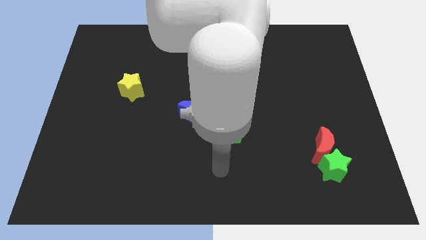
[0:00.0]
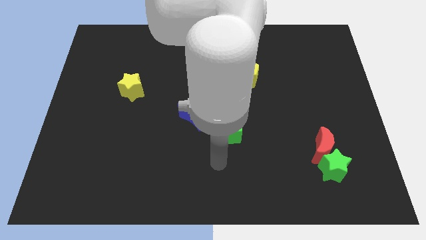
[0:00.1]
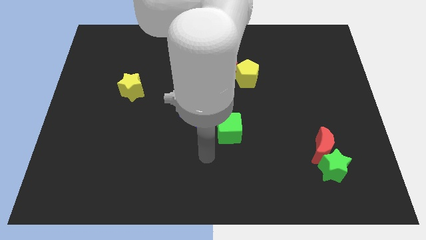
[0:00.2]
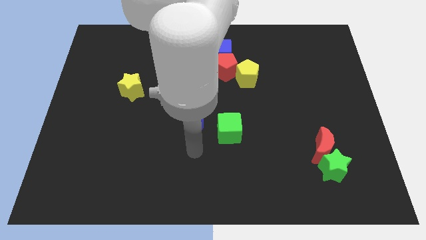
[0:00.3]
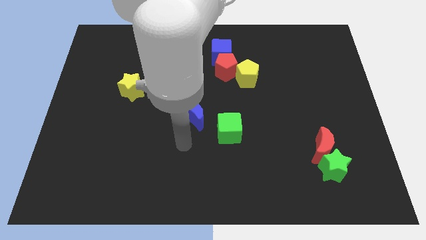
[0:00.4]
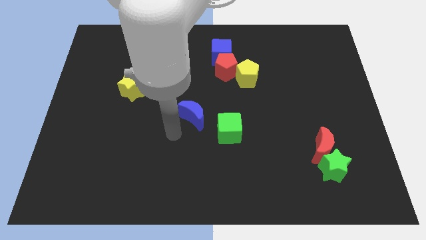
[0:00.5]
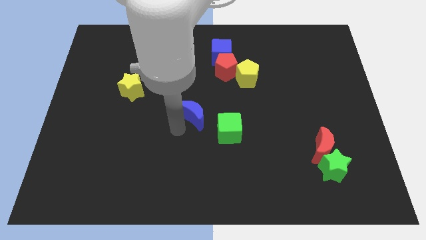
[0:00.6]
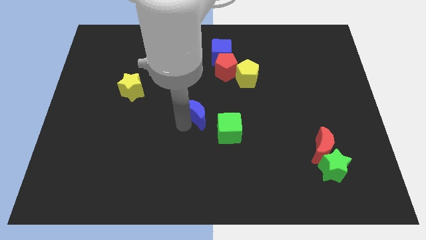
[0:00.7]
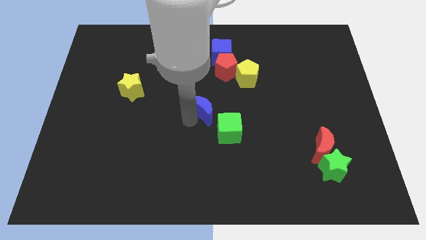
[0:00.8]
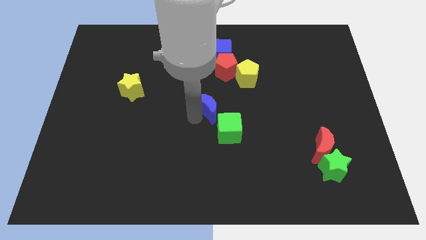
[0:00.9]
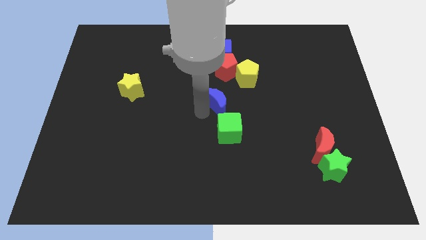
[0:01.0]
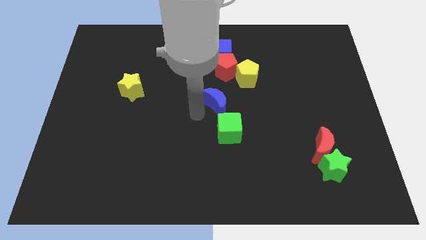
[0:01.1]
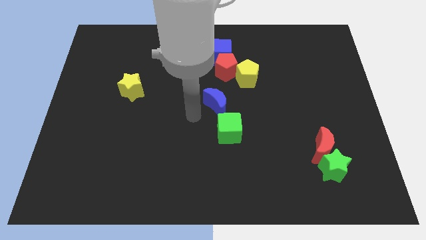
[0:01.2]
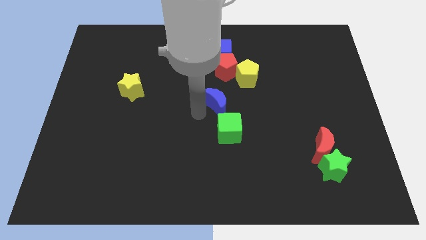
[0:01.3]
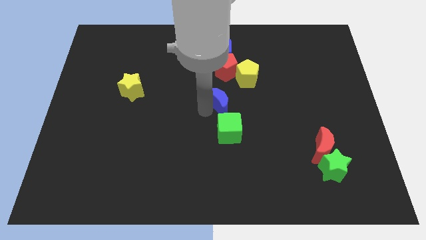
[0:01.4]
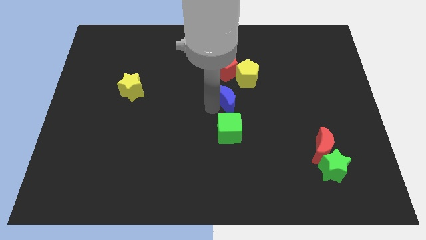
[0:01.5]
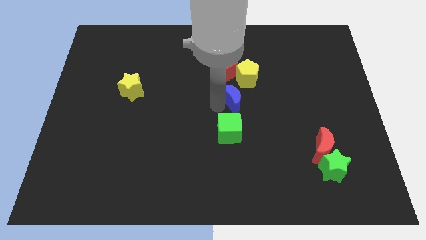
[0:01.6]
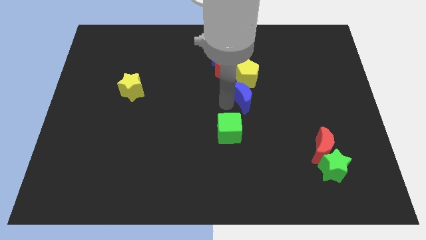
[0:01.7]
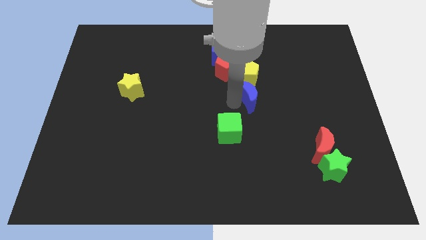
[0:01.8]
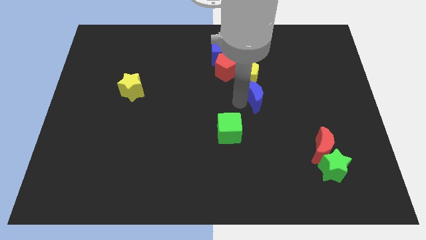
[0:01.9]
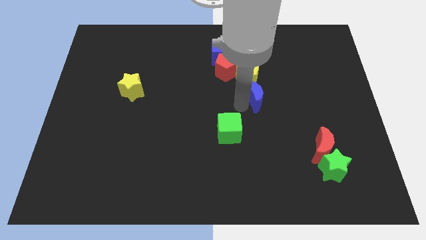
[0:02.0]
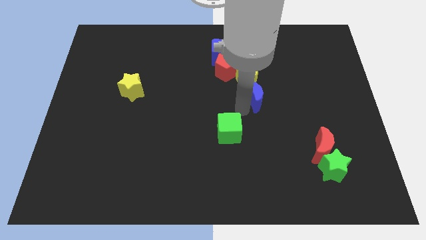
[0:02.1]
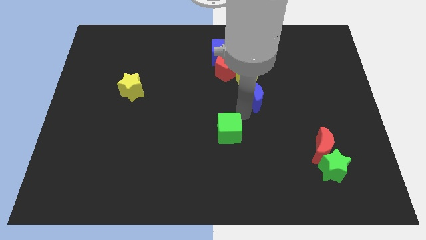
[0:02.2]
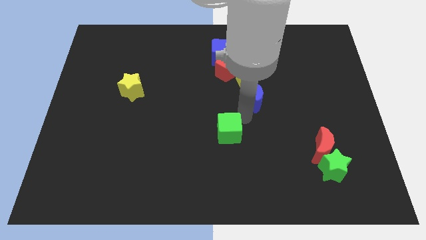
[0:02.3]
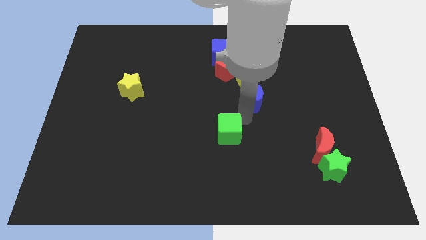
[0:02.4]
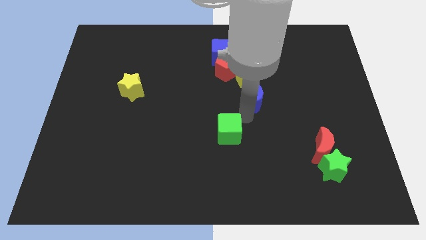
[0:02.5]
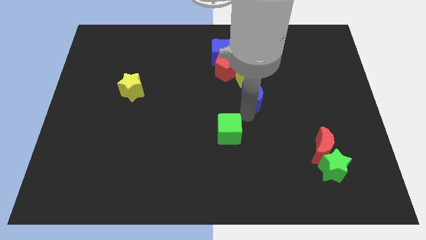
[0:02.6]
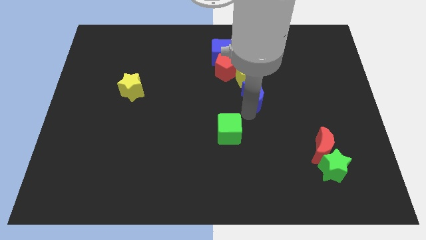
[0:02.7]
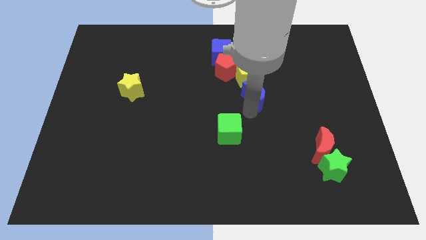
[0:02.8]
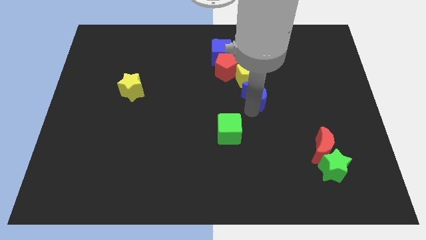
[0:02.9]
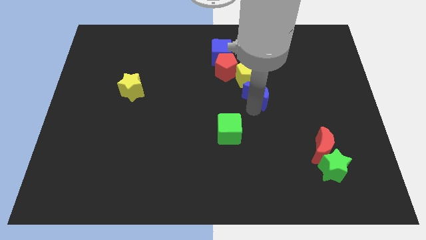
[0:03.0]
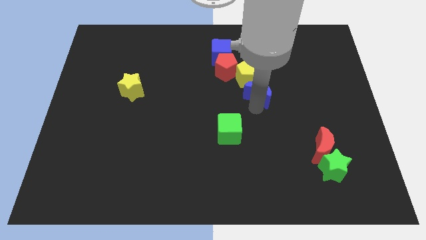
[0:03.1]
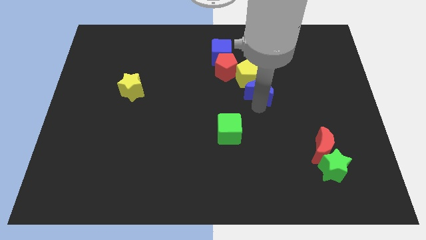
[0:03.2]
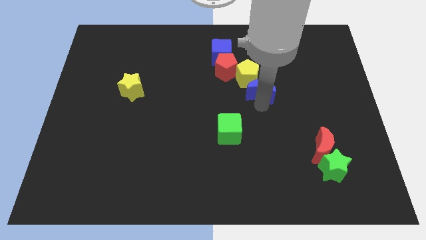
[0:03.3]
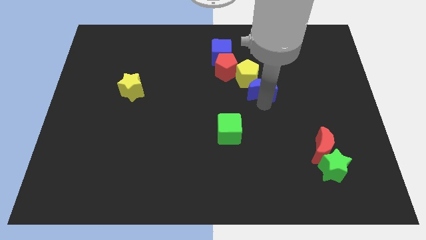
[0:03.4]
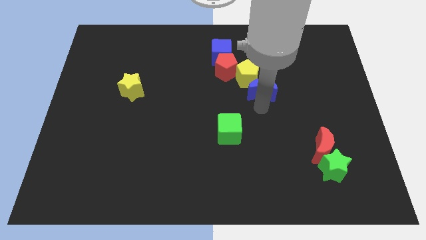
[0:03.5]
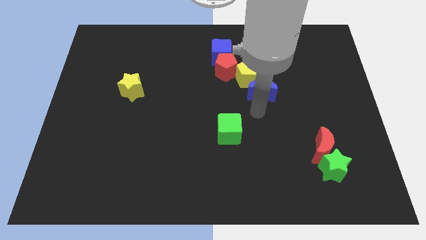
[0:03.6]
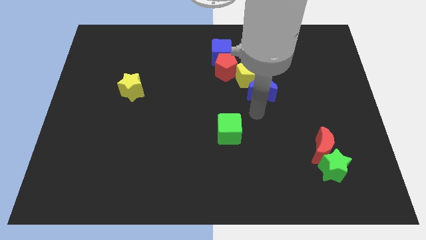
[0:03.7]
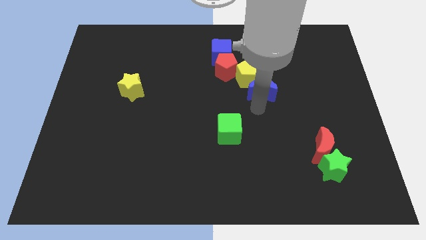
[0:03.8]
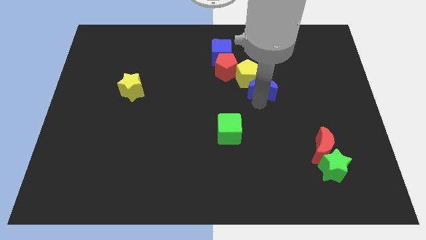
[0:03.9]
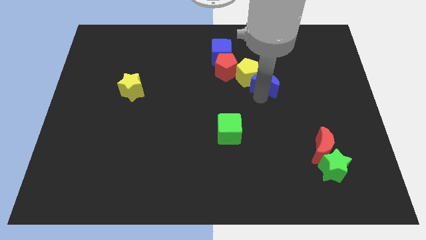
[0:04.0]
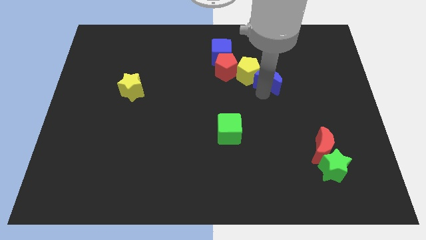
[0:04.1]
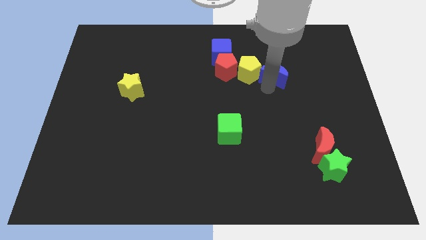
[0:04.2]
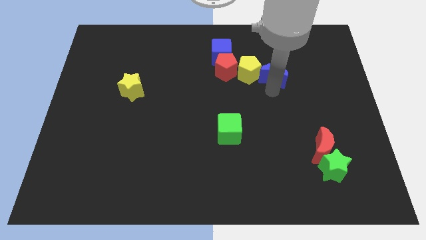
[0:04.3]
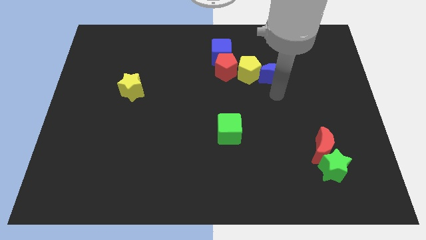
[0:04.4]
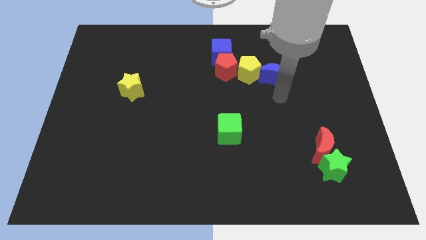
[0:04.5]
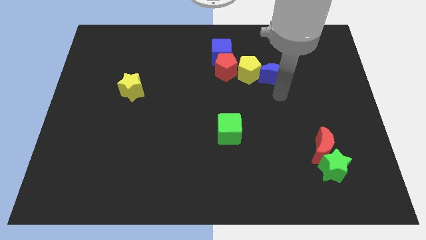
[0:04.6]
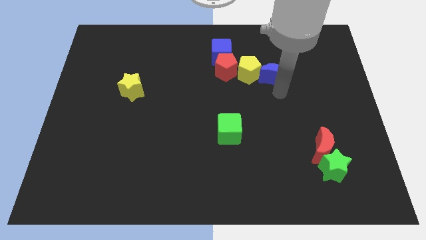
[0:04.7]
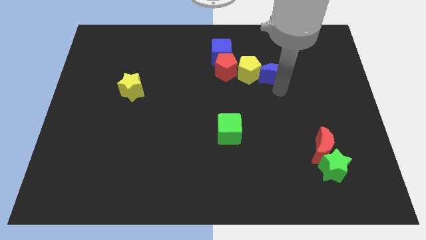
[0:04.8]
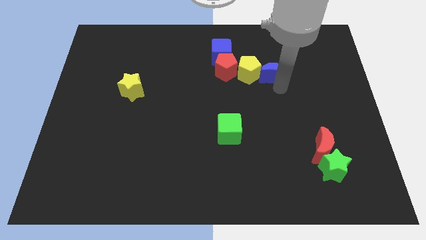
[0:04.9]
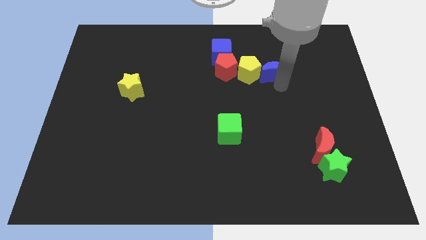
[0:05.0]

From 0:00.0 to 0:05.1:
slide the blue moon to the top right side of the yellow pentagon

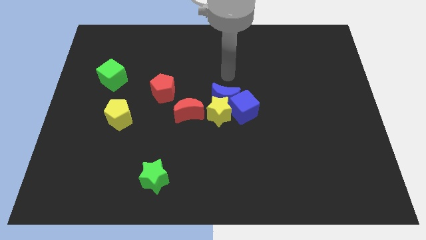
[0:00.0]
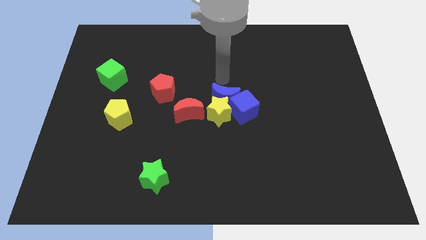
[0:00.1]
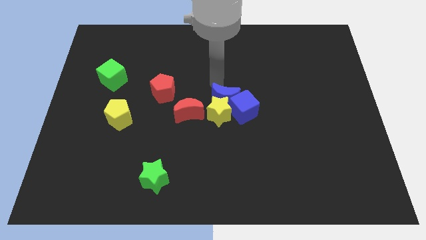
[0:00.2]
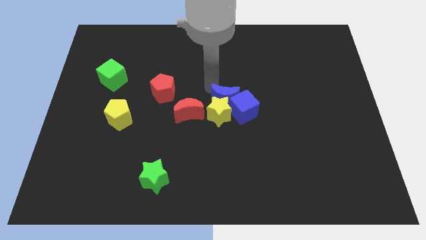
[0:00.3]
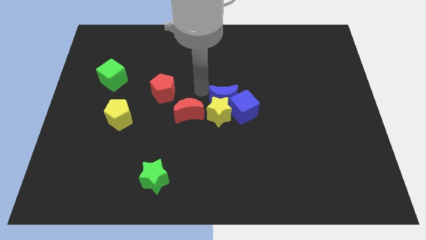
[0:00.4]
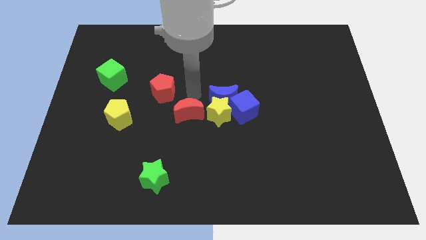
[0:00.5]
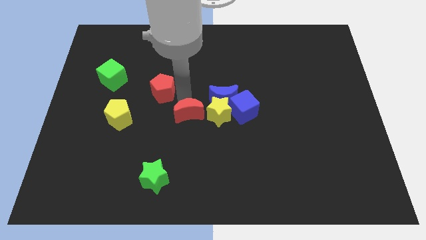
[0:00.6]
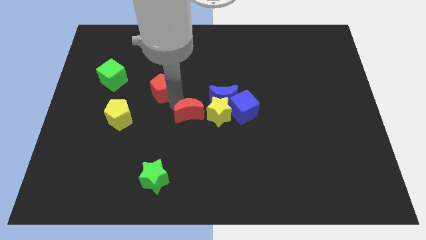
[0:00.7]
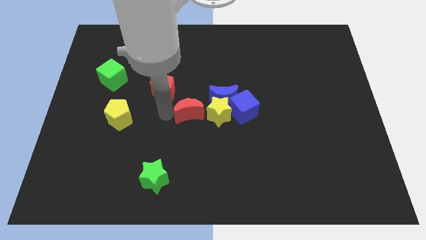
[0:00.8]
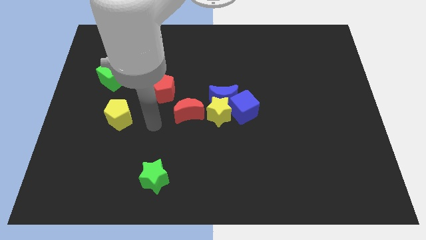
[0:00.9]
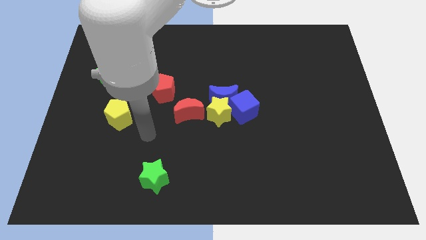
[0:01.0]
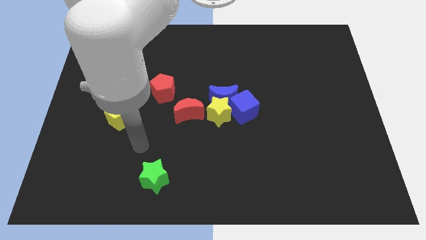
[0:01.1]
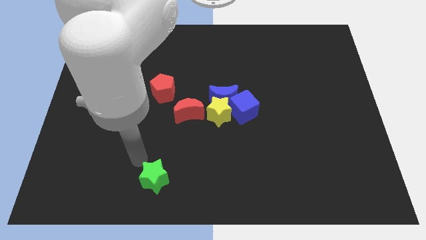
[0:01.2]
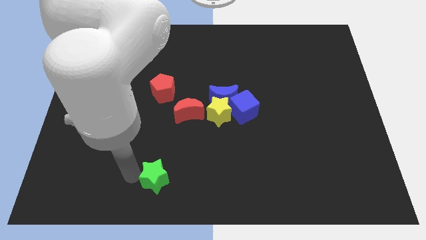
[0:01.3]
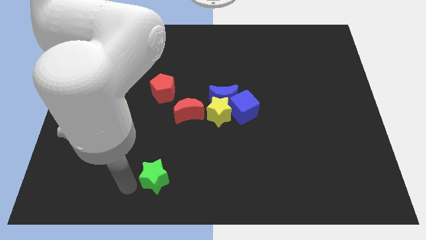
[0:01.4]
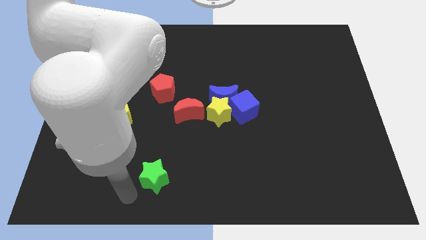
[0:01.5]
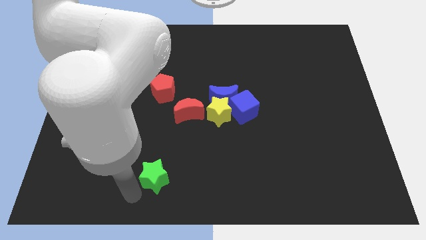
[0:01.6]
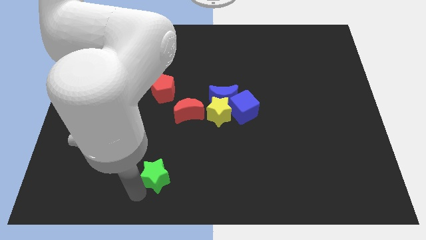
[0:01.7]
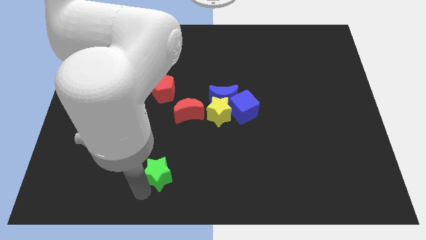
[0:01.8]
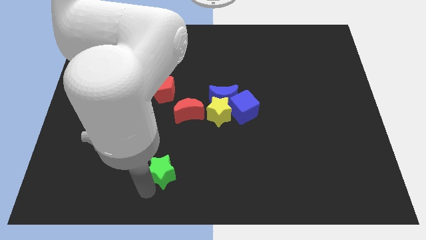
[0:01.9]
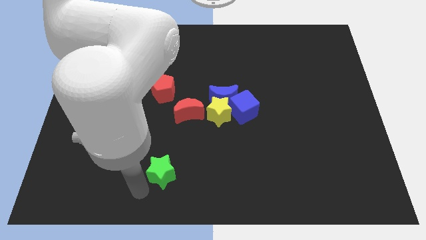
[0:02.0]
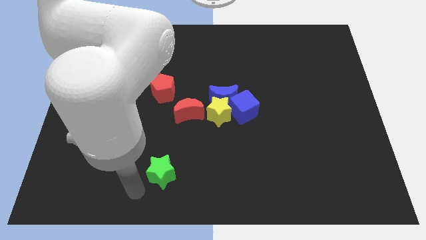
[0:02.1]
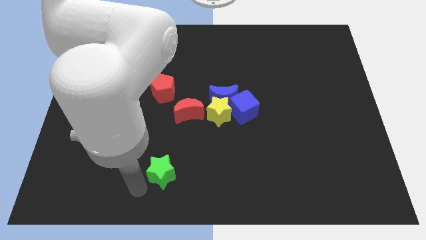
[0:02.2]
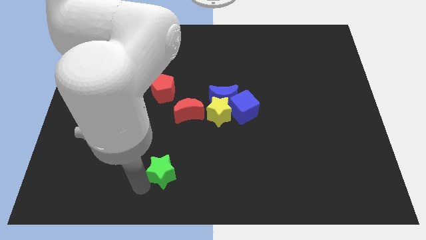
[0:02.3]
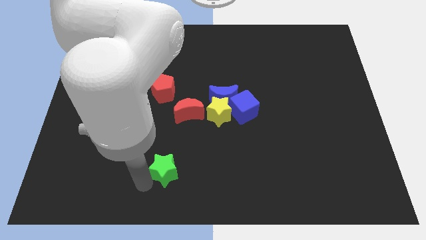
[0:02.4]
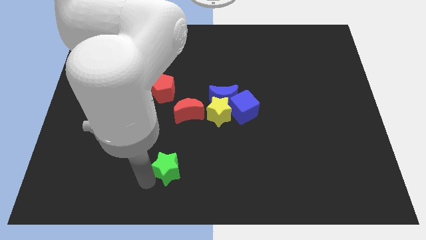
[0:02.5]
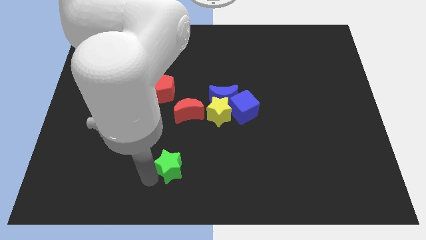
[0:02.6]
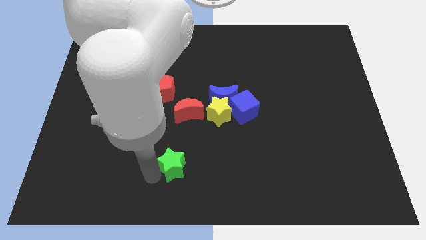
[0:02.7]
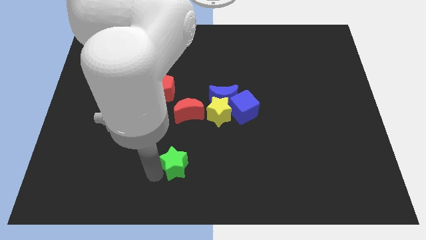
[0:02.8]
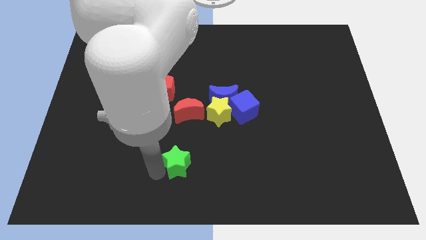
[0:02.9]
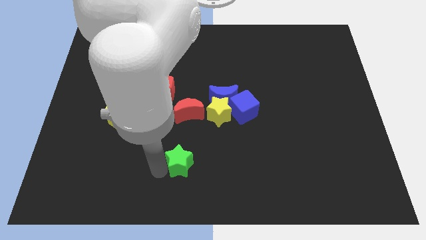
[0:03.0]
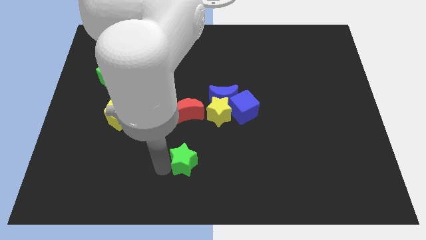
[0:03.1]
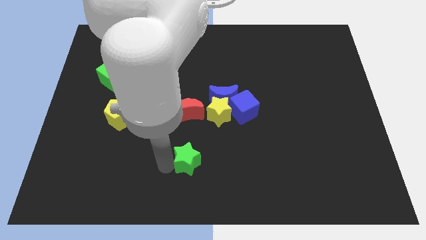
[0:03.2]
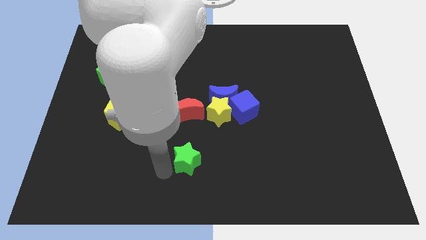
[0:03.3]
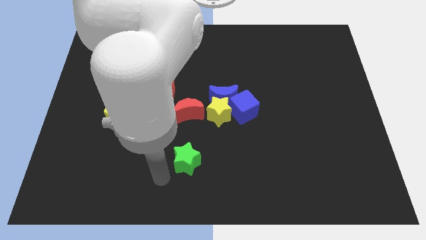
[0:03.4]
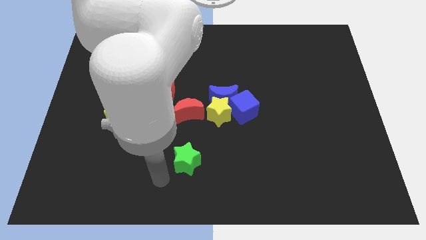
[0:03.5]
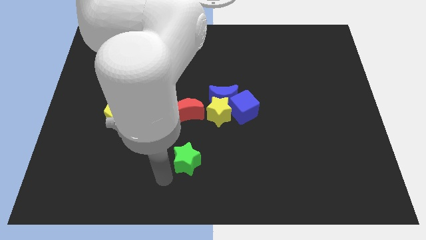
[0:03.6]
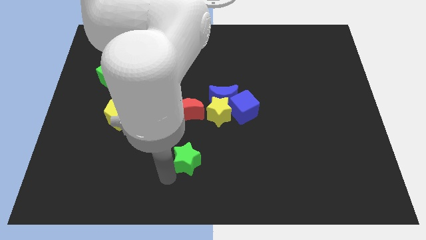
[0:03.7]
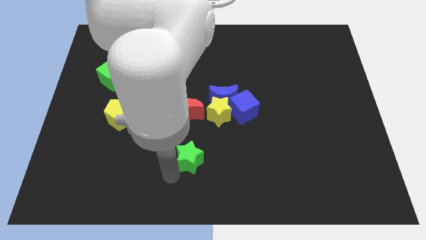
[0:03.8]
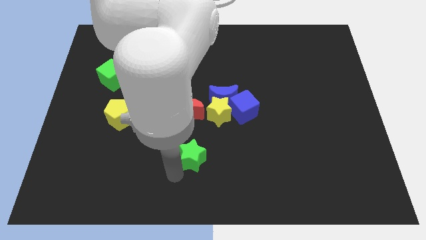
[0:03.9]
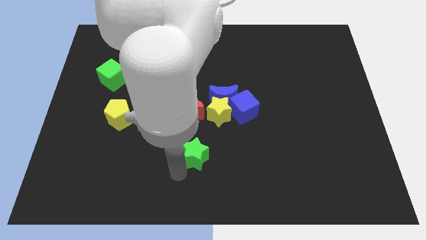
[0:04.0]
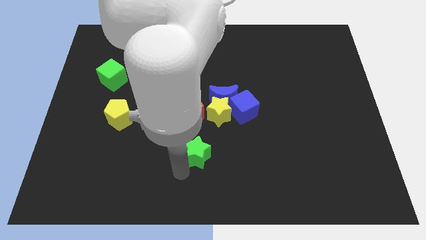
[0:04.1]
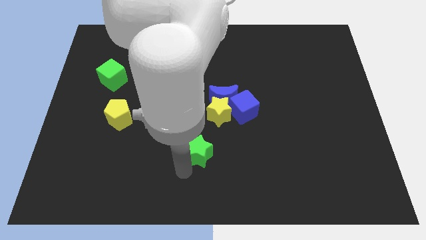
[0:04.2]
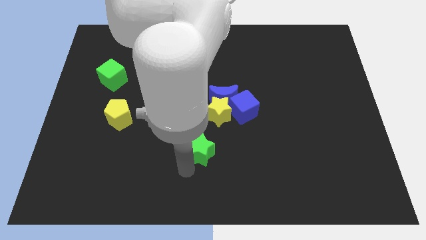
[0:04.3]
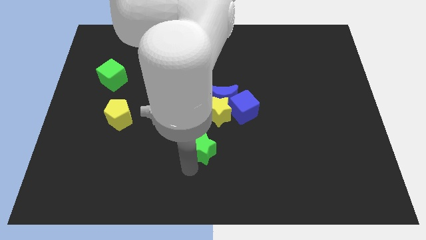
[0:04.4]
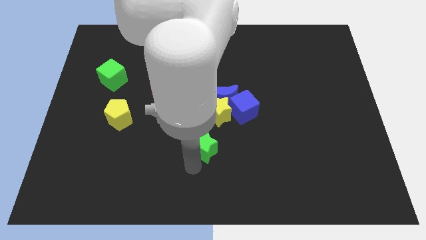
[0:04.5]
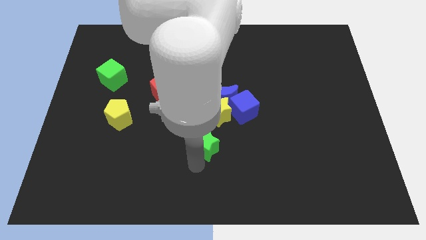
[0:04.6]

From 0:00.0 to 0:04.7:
push the green star below the blue moon
